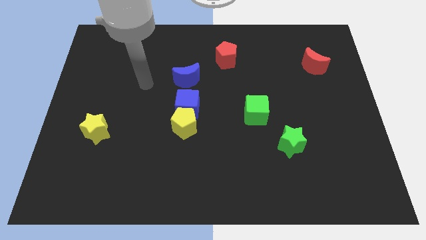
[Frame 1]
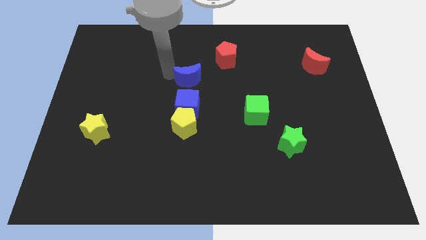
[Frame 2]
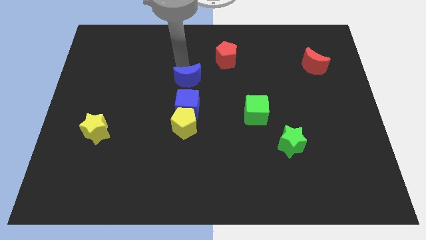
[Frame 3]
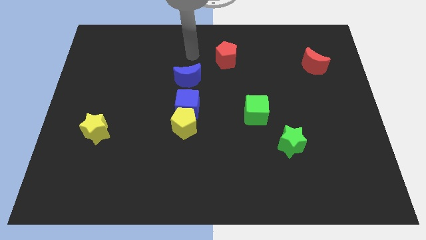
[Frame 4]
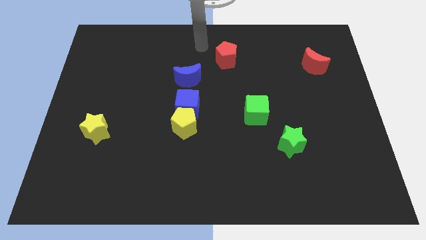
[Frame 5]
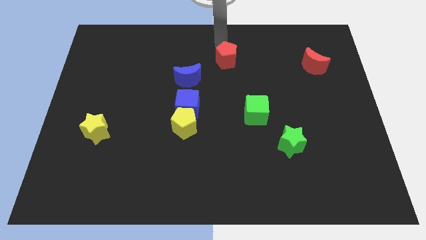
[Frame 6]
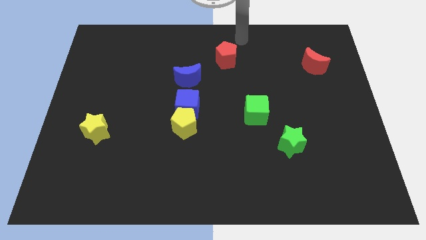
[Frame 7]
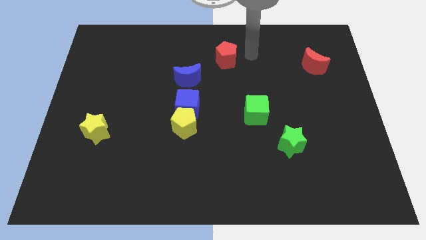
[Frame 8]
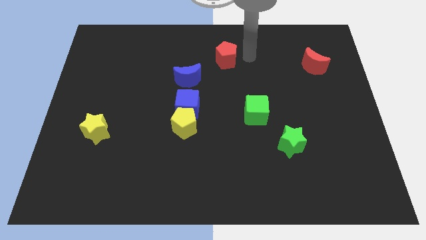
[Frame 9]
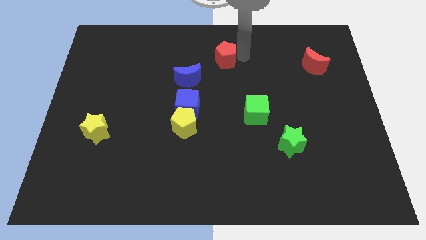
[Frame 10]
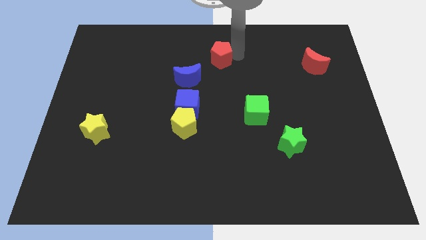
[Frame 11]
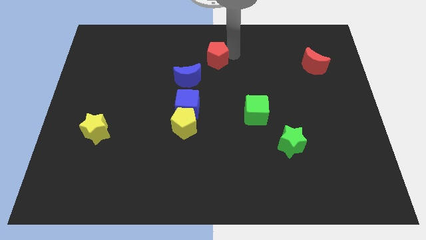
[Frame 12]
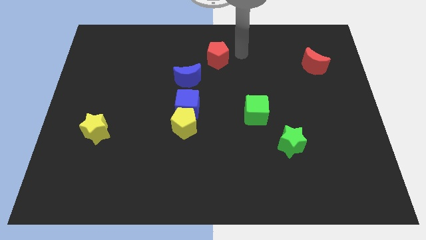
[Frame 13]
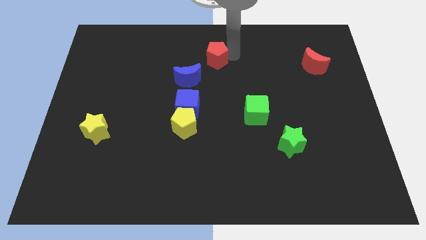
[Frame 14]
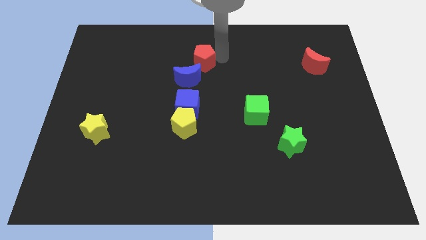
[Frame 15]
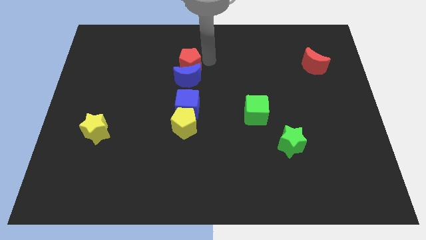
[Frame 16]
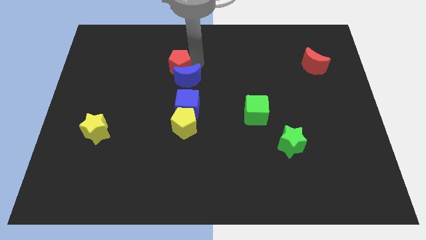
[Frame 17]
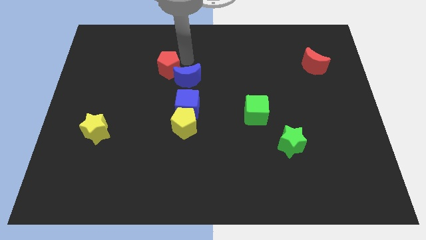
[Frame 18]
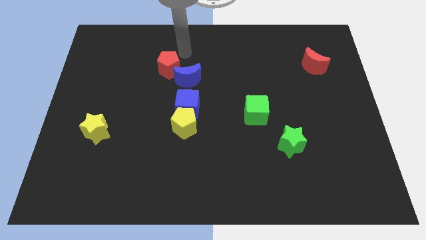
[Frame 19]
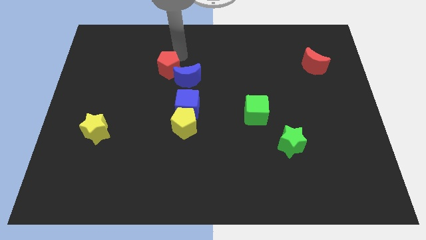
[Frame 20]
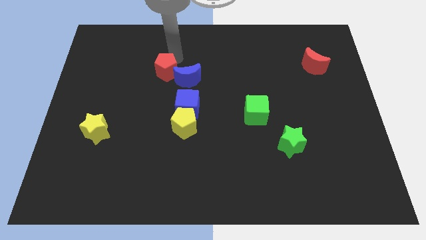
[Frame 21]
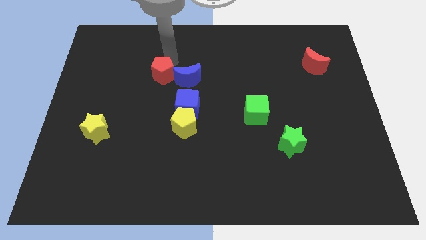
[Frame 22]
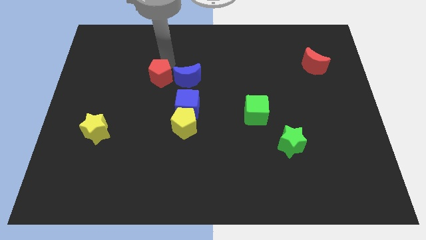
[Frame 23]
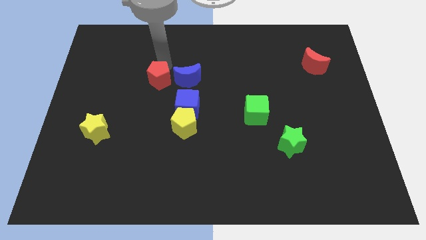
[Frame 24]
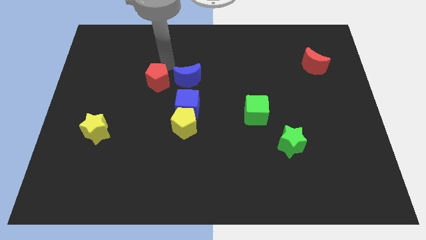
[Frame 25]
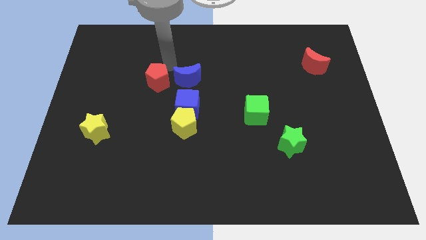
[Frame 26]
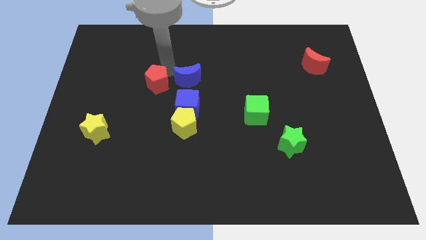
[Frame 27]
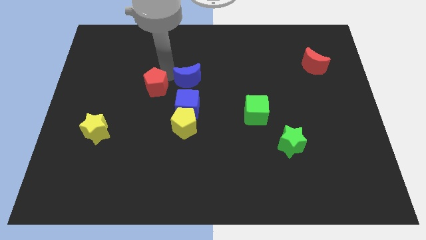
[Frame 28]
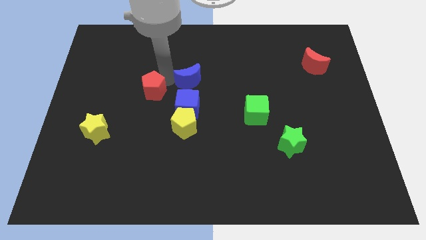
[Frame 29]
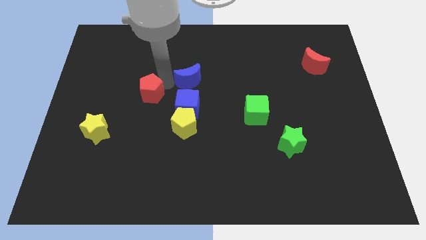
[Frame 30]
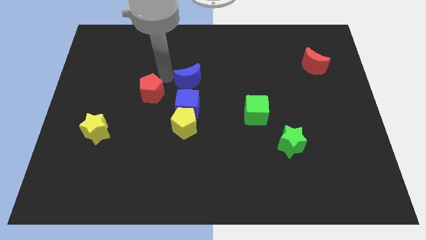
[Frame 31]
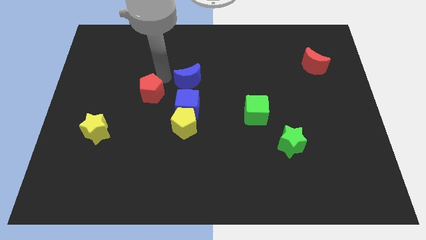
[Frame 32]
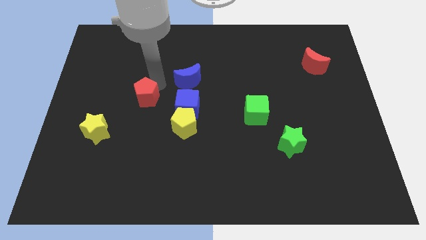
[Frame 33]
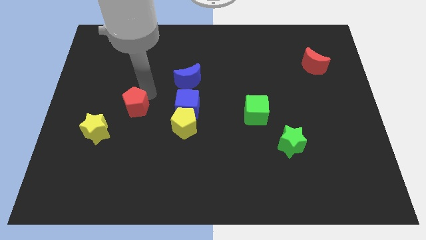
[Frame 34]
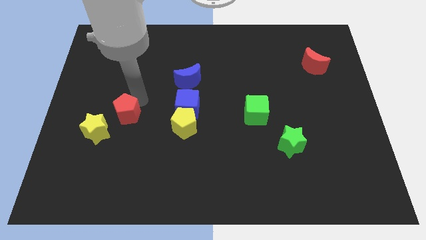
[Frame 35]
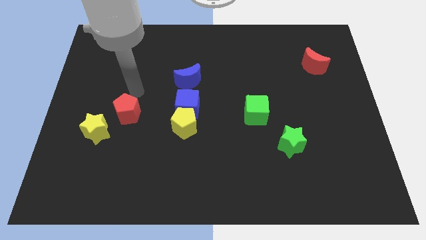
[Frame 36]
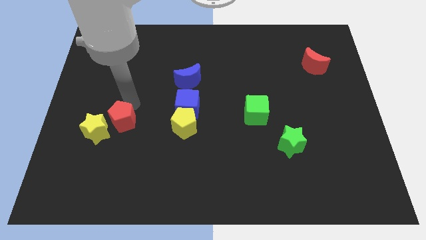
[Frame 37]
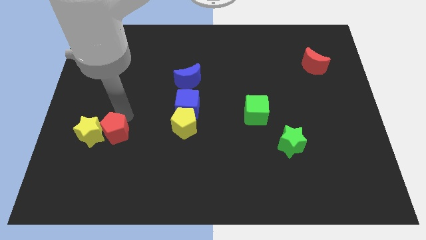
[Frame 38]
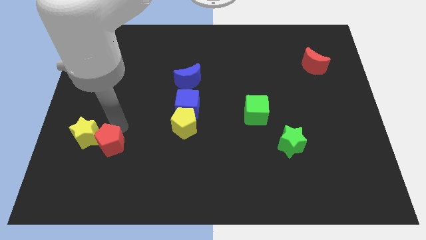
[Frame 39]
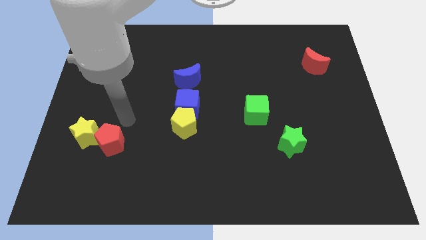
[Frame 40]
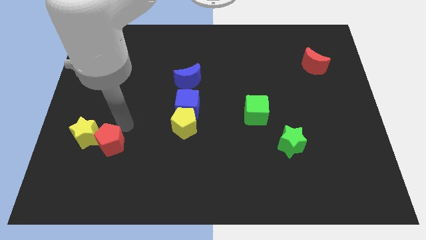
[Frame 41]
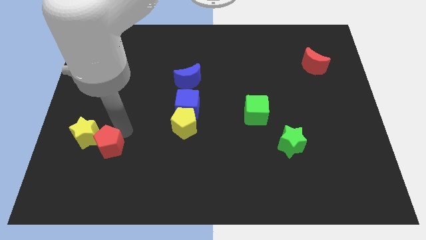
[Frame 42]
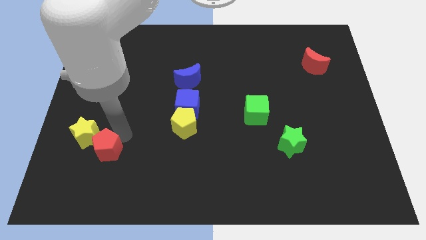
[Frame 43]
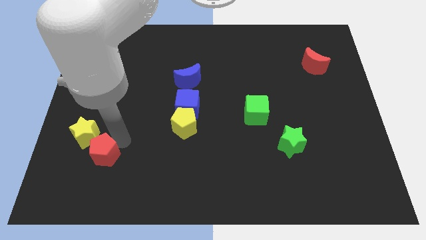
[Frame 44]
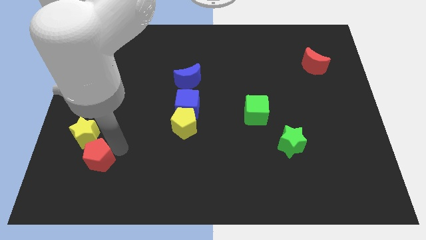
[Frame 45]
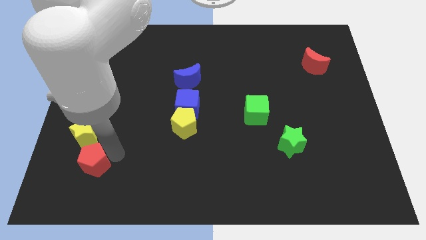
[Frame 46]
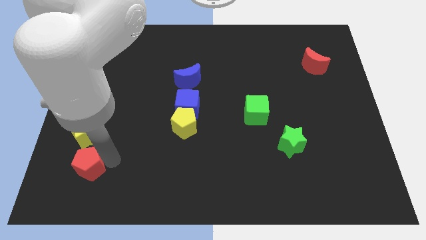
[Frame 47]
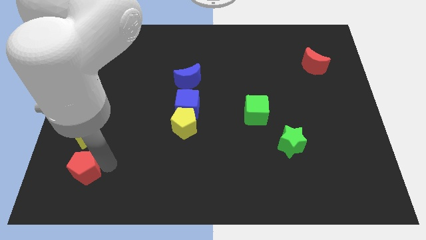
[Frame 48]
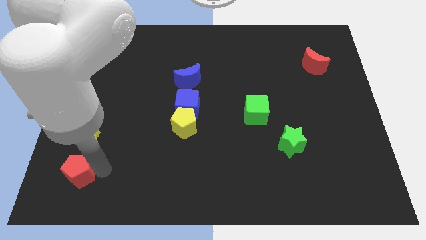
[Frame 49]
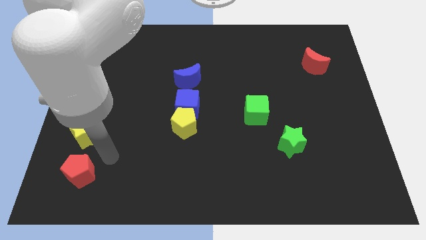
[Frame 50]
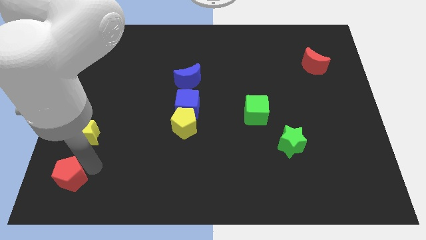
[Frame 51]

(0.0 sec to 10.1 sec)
move the red pentagon to the bottom left corner

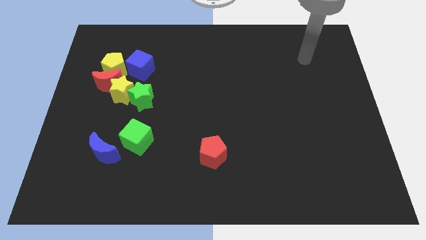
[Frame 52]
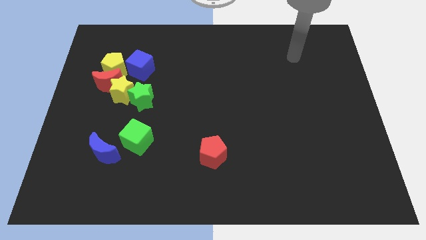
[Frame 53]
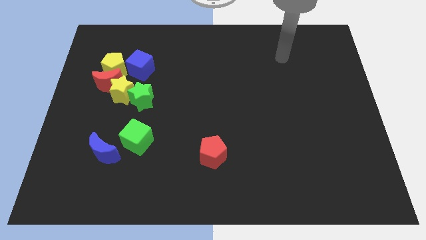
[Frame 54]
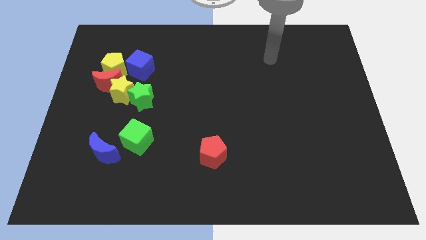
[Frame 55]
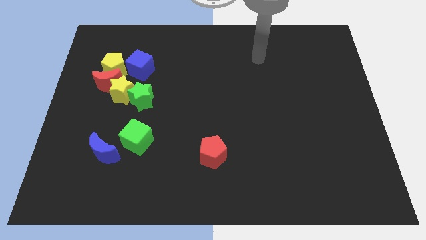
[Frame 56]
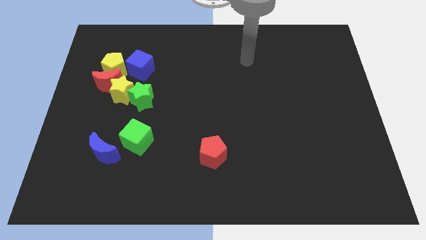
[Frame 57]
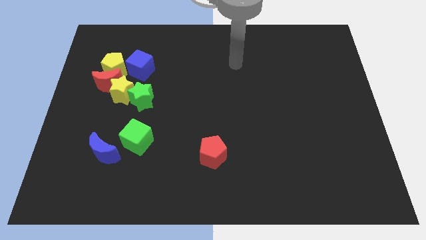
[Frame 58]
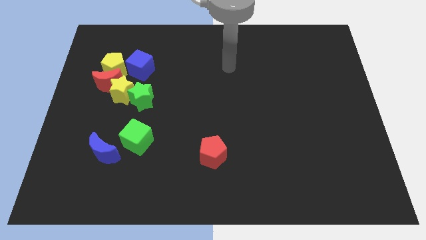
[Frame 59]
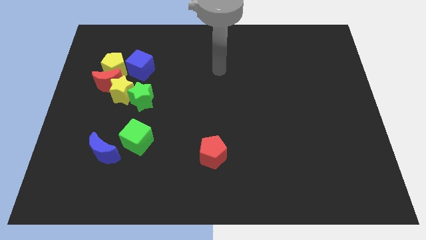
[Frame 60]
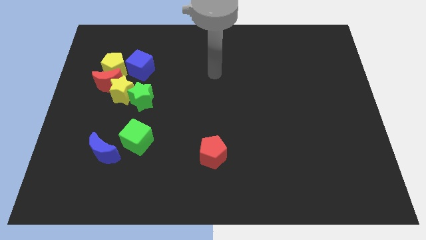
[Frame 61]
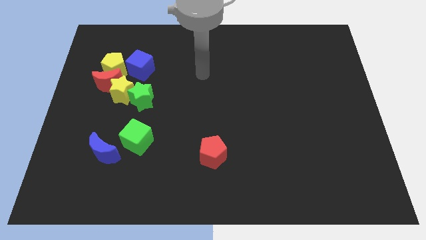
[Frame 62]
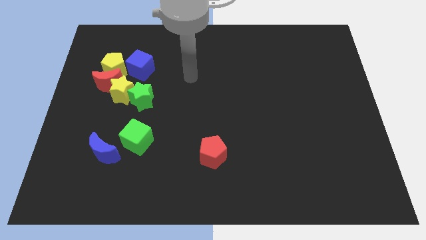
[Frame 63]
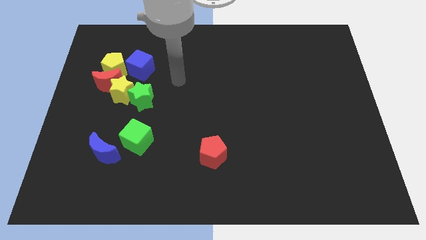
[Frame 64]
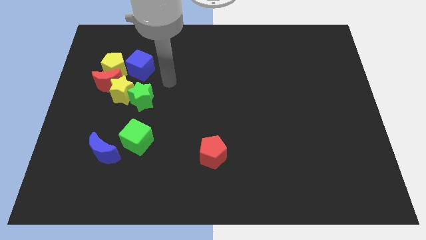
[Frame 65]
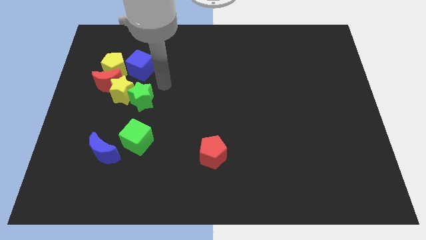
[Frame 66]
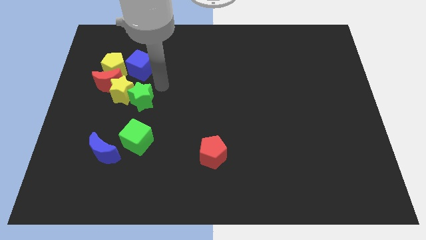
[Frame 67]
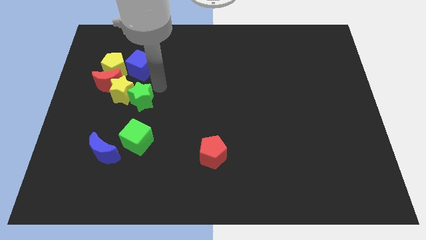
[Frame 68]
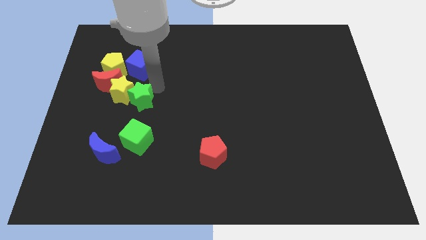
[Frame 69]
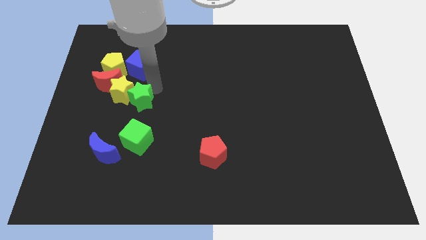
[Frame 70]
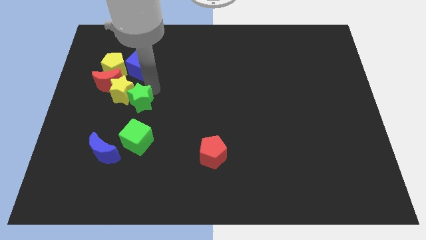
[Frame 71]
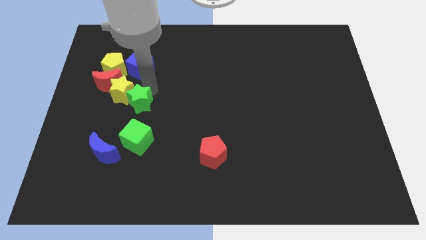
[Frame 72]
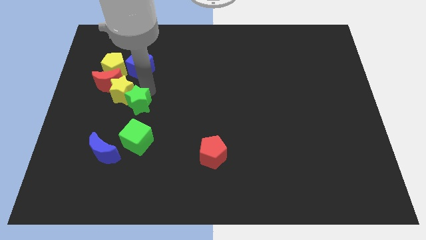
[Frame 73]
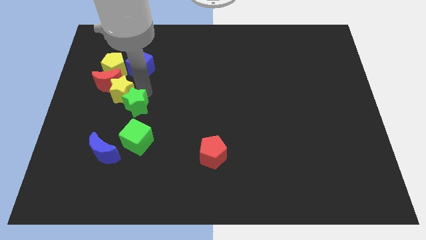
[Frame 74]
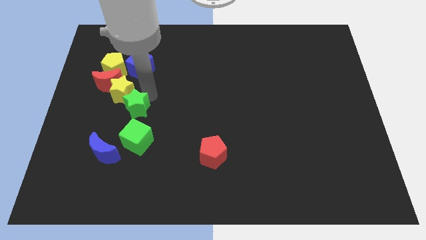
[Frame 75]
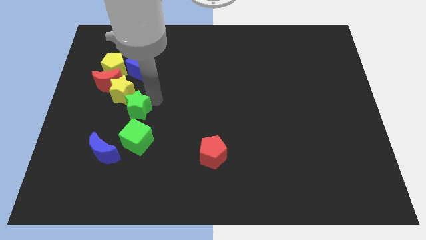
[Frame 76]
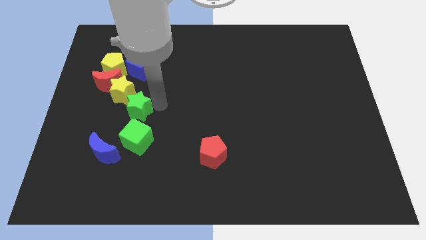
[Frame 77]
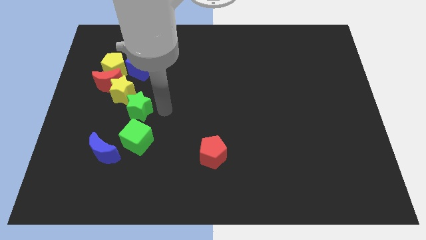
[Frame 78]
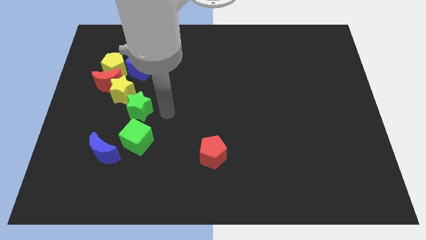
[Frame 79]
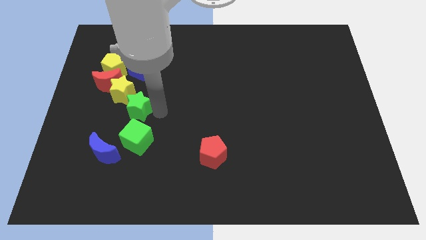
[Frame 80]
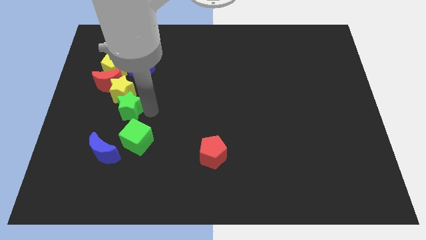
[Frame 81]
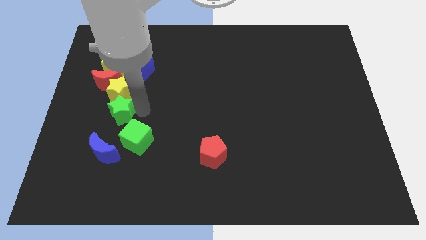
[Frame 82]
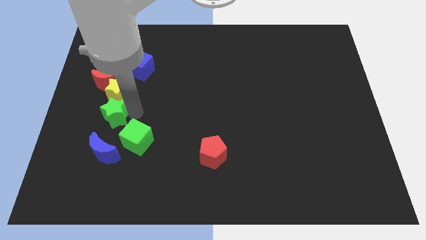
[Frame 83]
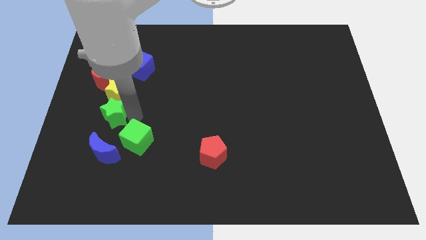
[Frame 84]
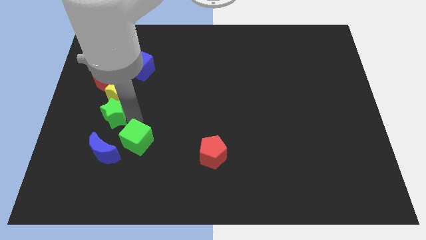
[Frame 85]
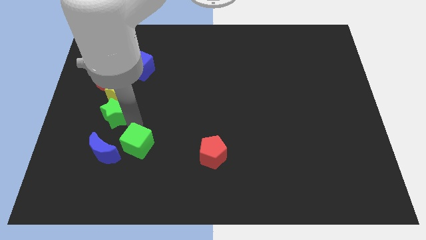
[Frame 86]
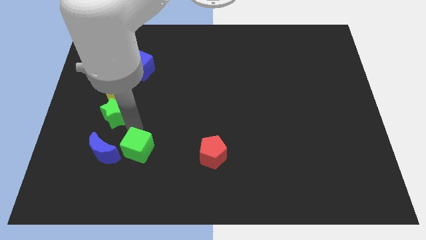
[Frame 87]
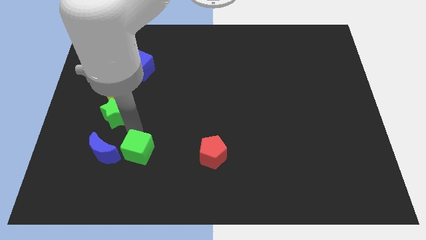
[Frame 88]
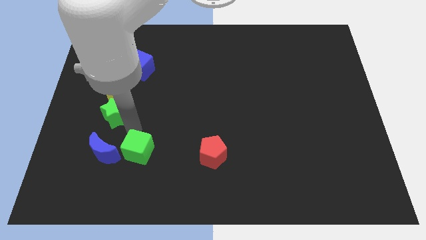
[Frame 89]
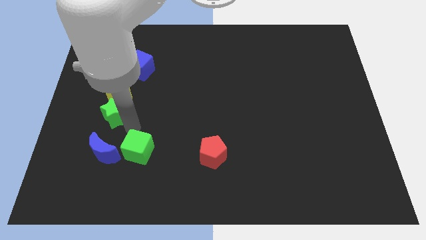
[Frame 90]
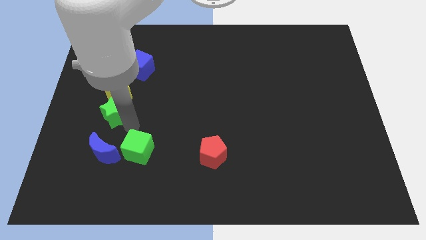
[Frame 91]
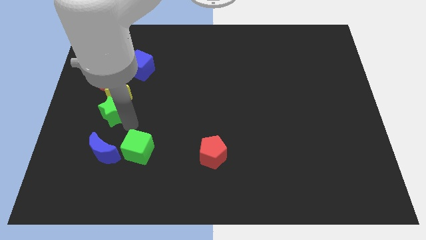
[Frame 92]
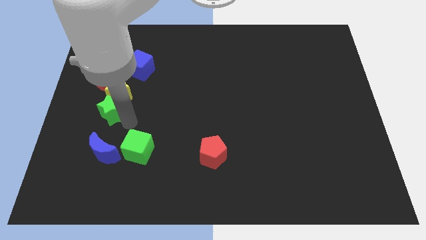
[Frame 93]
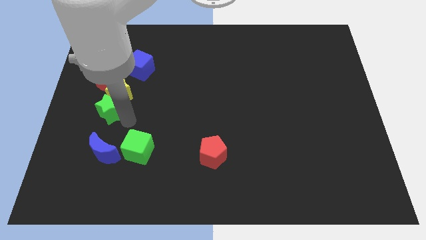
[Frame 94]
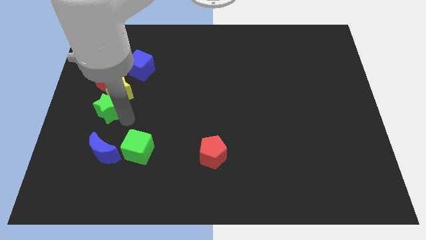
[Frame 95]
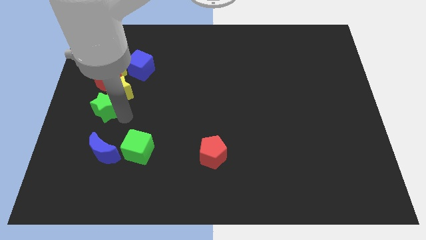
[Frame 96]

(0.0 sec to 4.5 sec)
slide the green star to the left side
